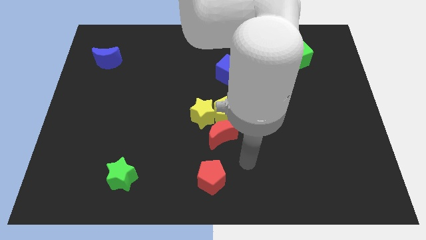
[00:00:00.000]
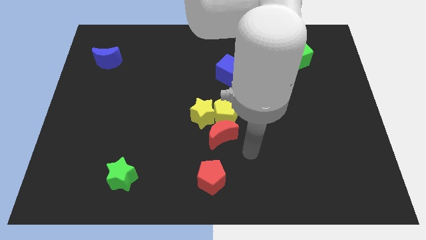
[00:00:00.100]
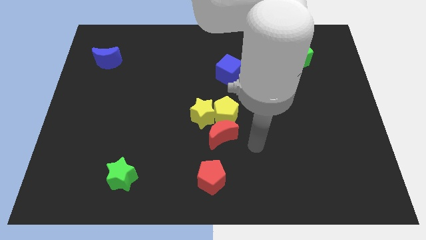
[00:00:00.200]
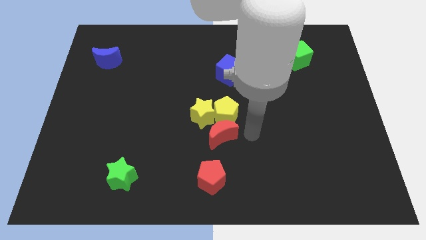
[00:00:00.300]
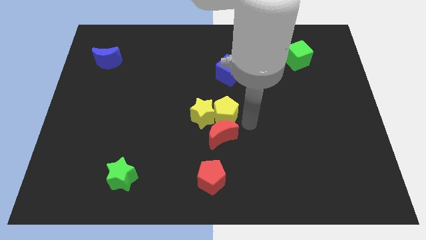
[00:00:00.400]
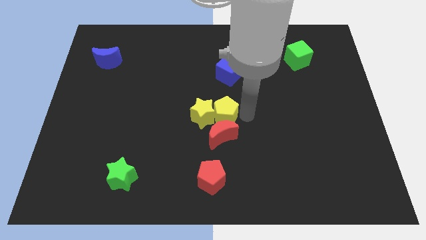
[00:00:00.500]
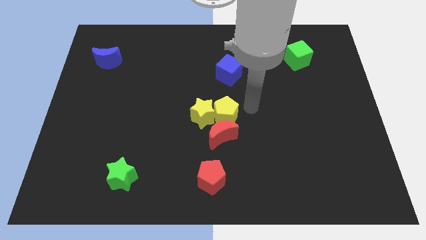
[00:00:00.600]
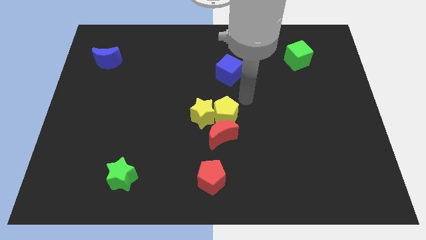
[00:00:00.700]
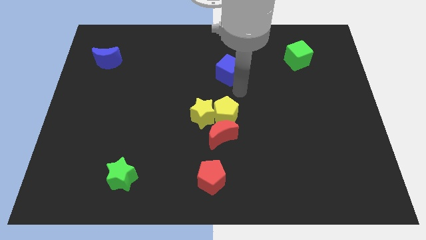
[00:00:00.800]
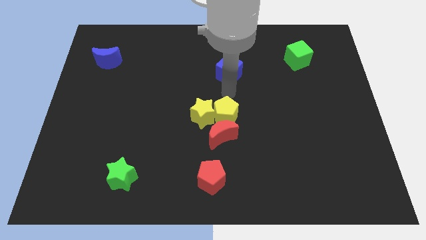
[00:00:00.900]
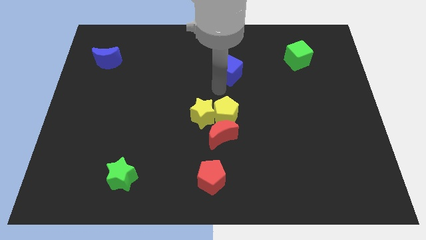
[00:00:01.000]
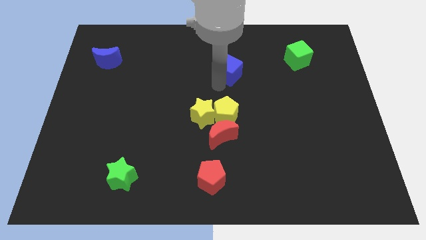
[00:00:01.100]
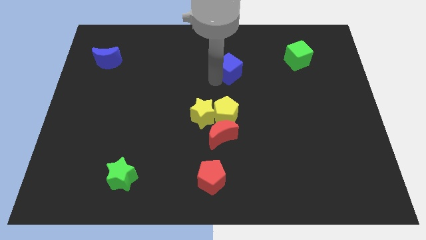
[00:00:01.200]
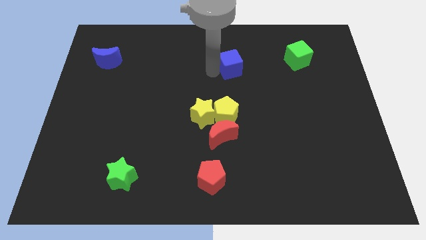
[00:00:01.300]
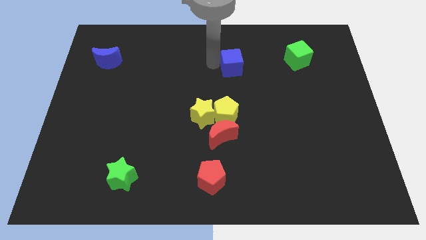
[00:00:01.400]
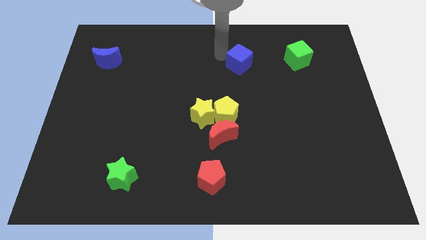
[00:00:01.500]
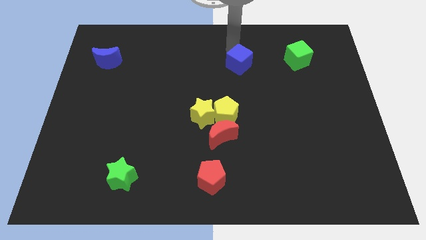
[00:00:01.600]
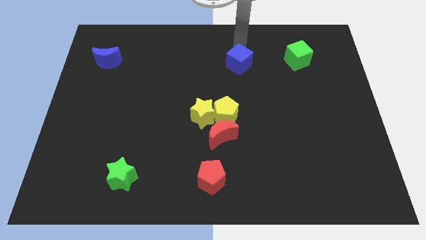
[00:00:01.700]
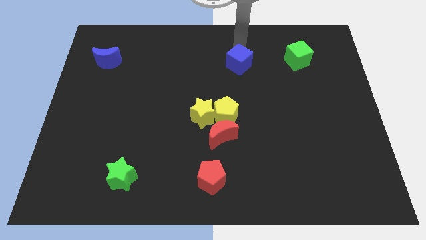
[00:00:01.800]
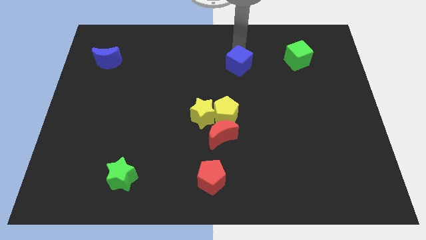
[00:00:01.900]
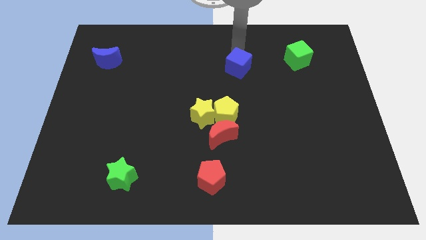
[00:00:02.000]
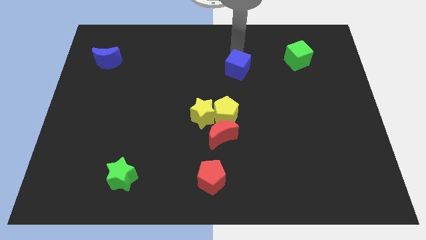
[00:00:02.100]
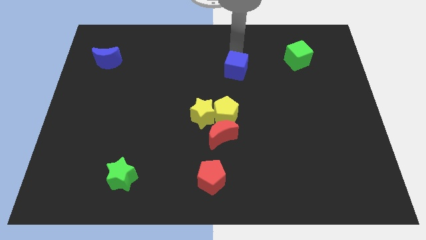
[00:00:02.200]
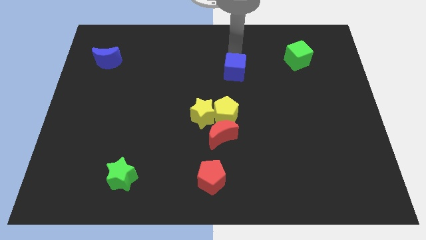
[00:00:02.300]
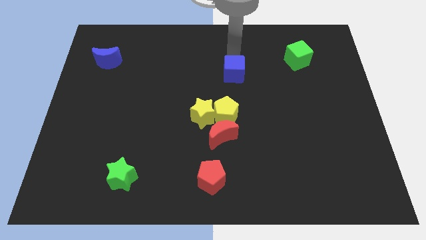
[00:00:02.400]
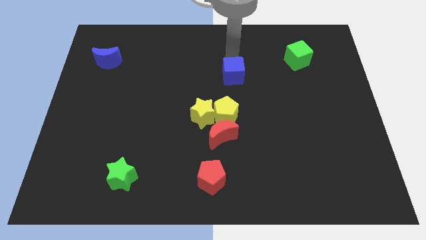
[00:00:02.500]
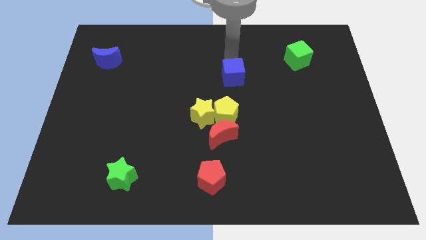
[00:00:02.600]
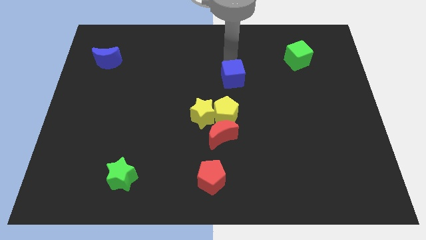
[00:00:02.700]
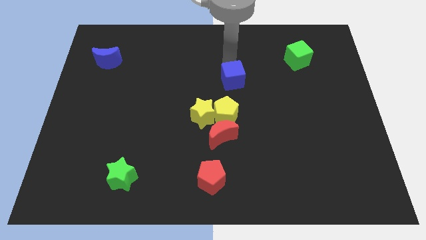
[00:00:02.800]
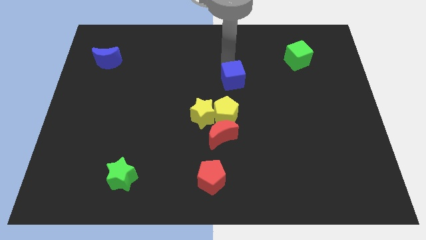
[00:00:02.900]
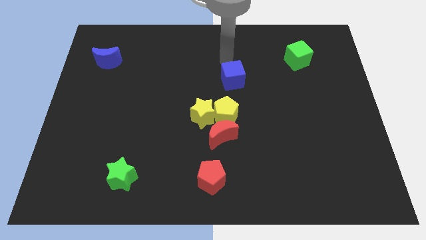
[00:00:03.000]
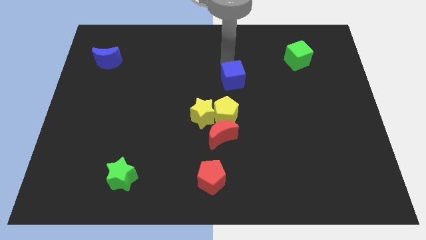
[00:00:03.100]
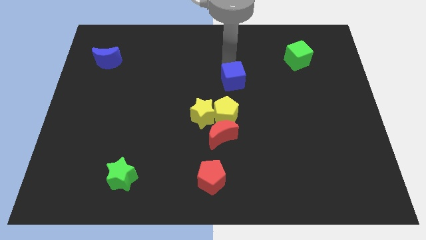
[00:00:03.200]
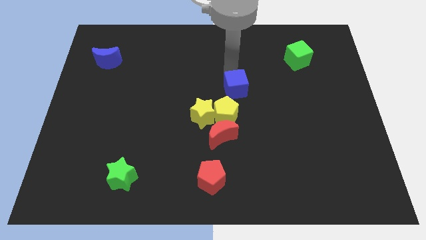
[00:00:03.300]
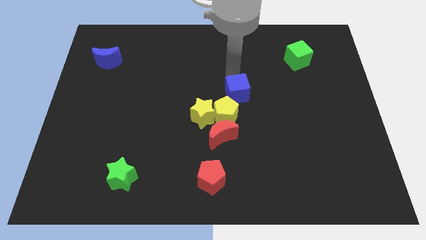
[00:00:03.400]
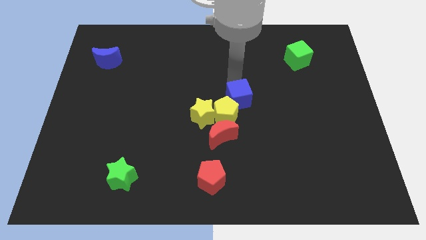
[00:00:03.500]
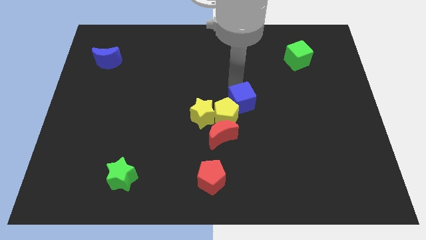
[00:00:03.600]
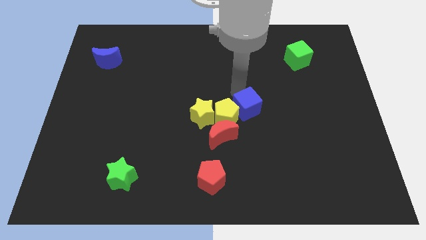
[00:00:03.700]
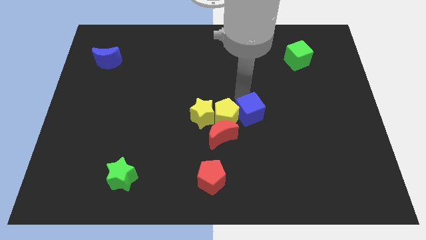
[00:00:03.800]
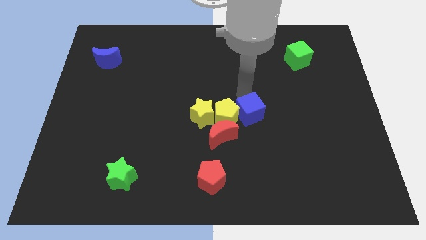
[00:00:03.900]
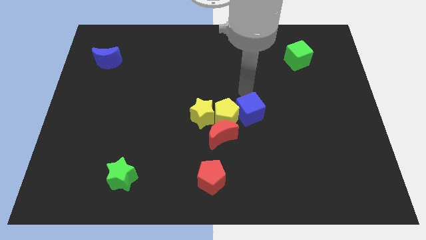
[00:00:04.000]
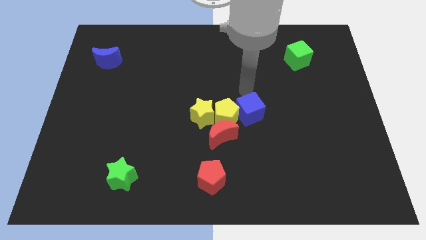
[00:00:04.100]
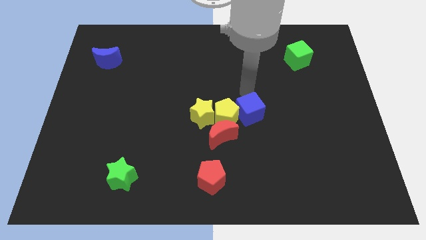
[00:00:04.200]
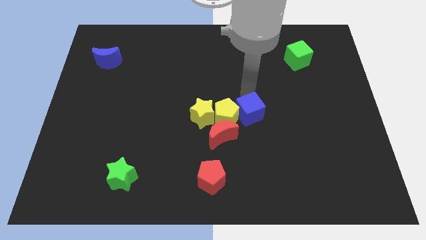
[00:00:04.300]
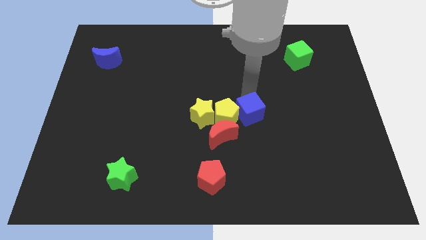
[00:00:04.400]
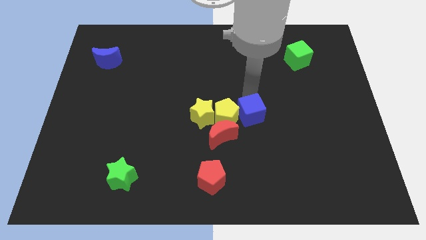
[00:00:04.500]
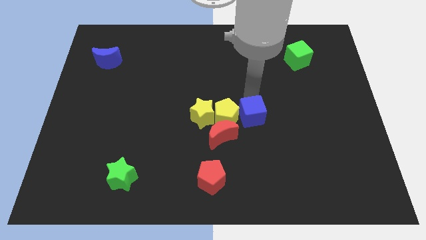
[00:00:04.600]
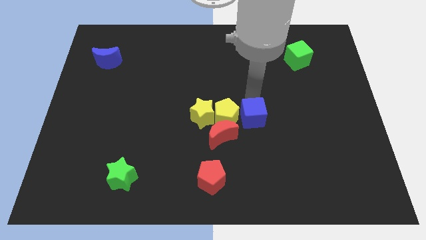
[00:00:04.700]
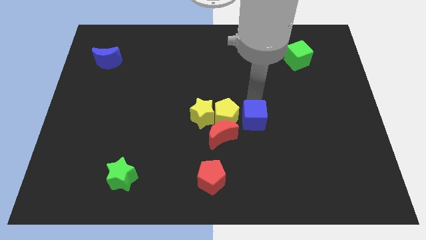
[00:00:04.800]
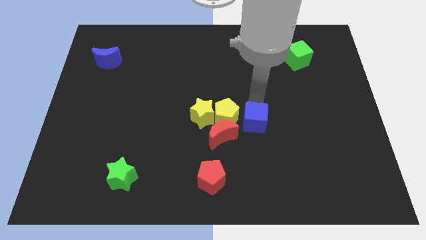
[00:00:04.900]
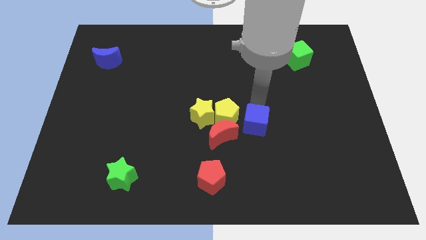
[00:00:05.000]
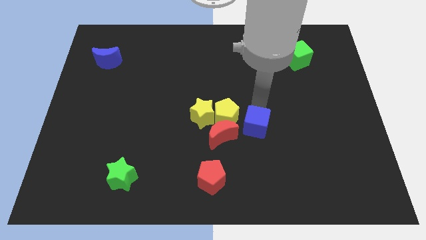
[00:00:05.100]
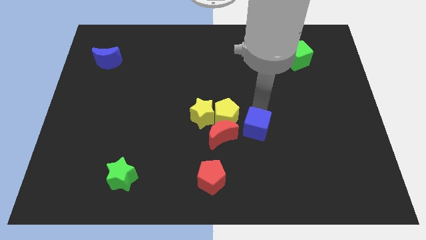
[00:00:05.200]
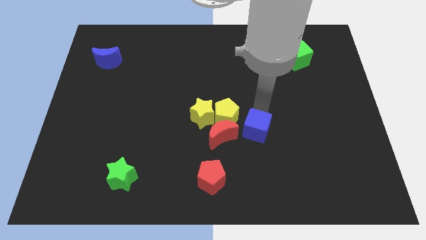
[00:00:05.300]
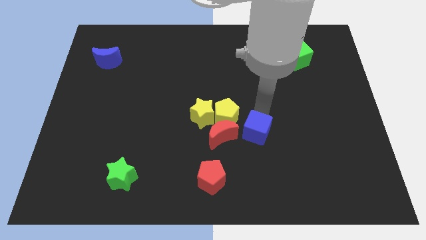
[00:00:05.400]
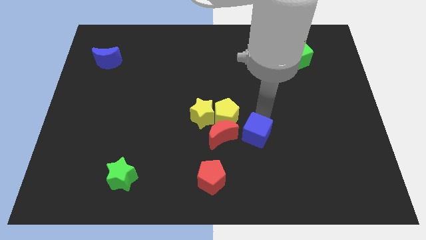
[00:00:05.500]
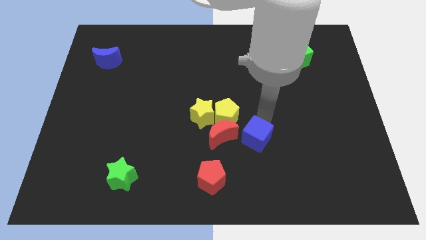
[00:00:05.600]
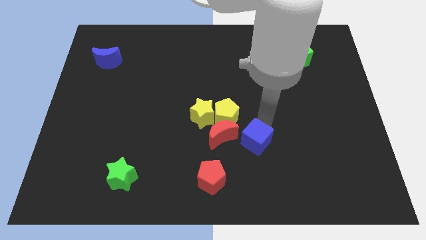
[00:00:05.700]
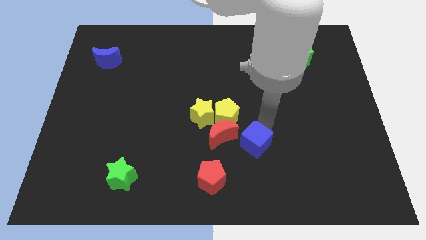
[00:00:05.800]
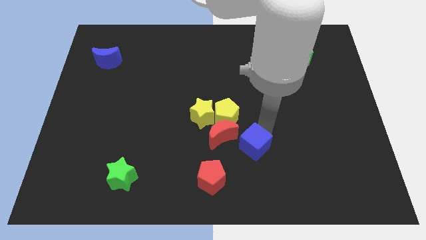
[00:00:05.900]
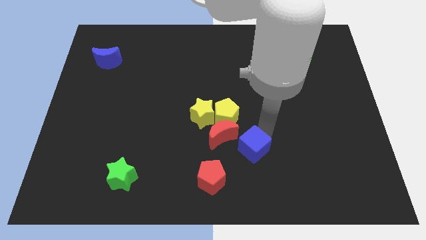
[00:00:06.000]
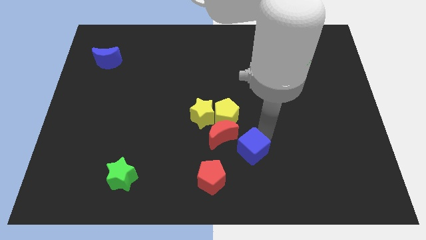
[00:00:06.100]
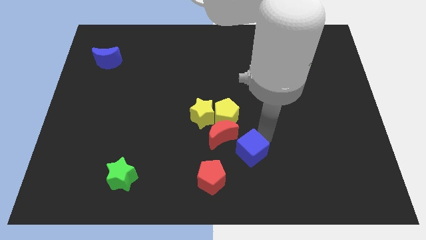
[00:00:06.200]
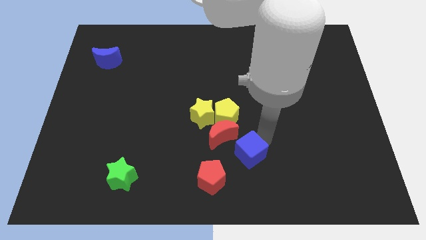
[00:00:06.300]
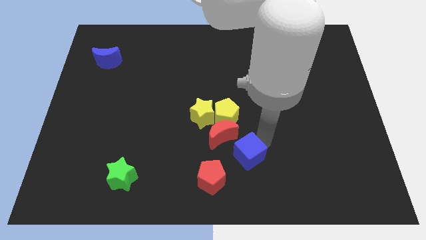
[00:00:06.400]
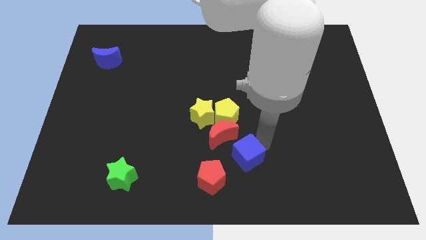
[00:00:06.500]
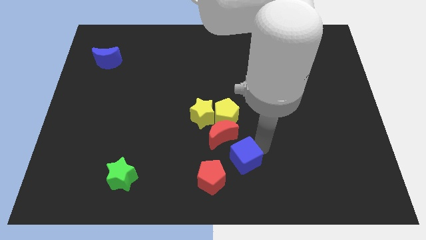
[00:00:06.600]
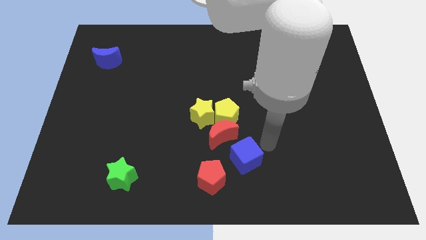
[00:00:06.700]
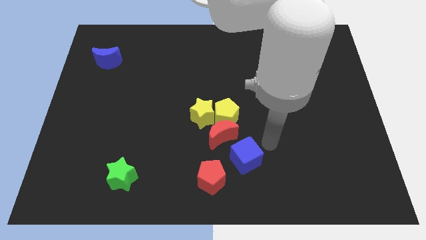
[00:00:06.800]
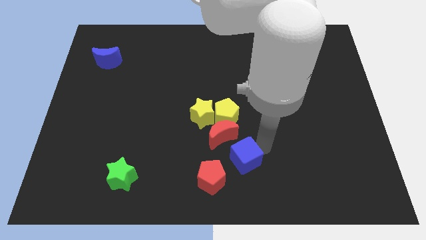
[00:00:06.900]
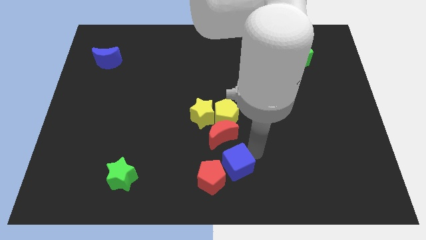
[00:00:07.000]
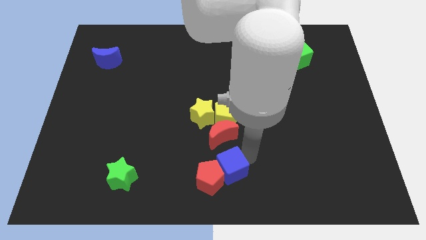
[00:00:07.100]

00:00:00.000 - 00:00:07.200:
push the blue cube to the red pentagon
